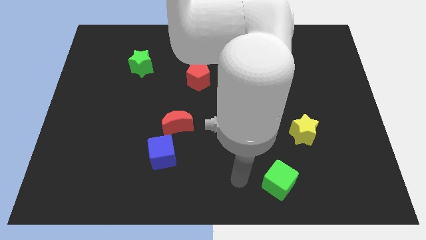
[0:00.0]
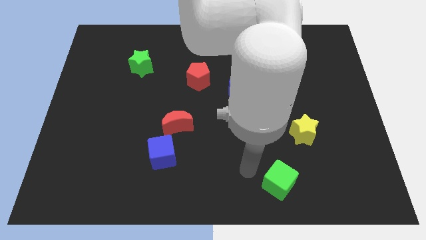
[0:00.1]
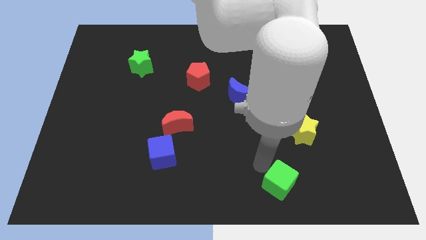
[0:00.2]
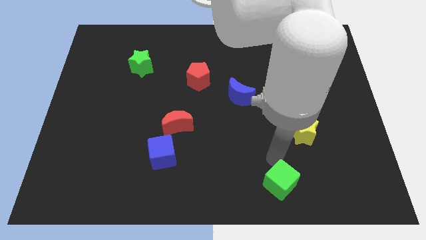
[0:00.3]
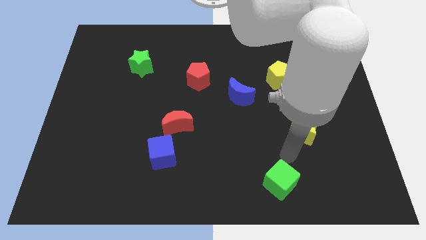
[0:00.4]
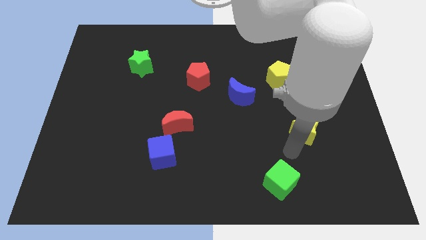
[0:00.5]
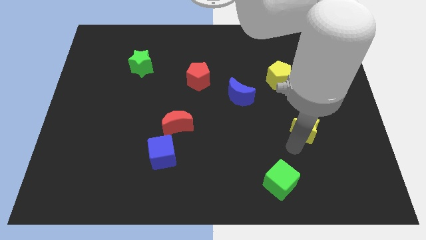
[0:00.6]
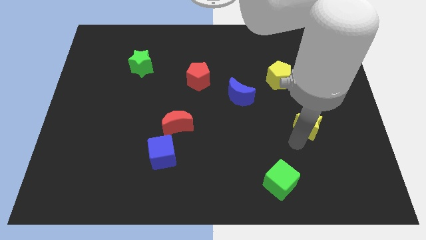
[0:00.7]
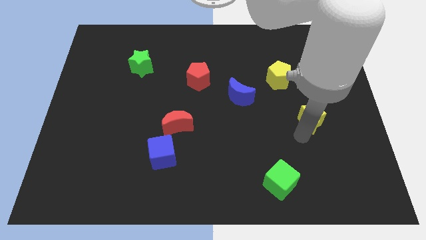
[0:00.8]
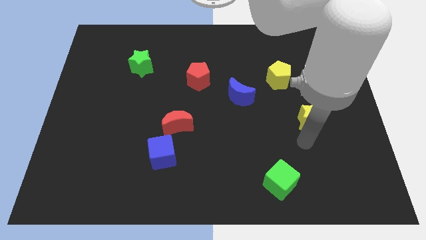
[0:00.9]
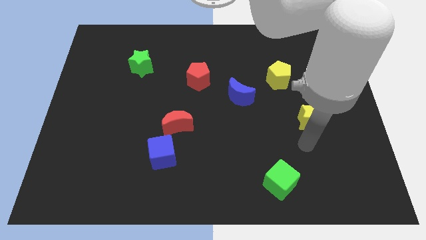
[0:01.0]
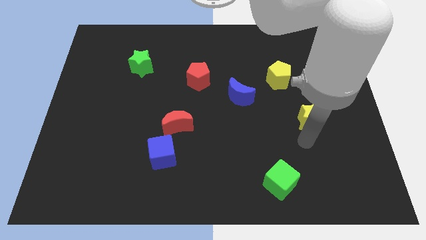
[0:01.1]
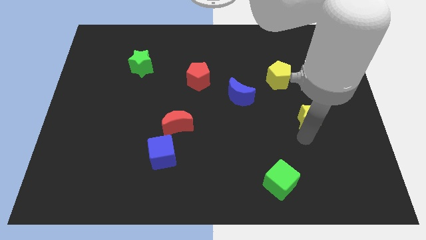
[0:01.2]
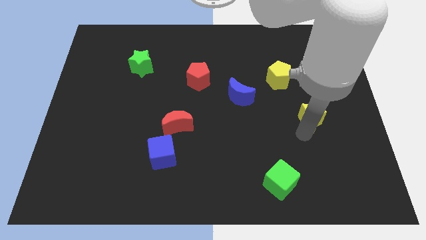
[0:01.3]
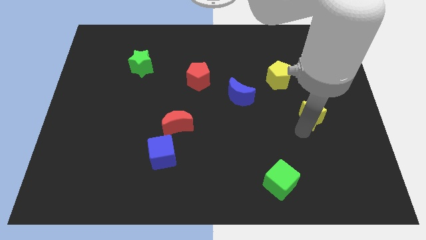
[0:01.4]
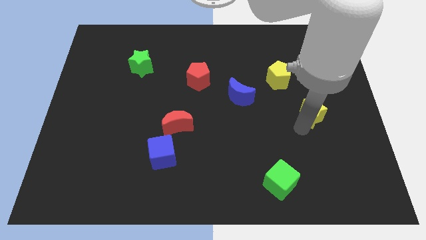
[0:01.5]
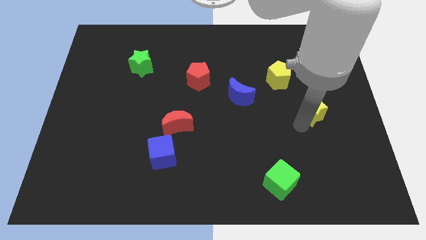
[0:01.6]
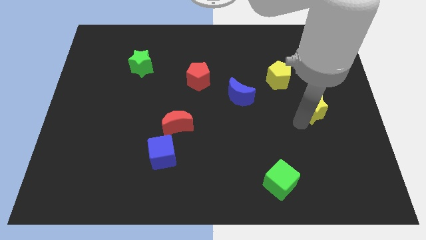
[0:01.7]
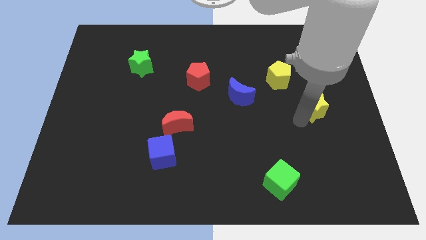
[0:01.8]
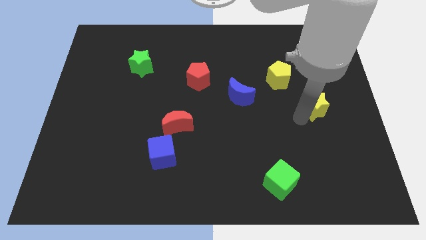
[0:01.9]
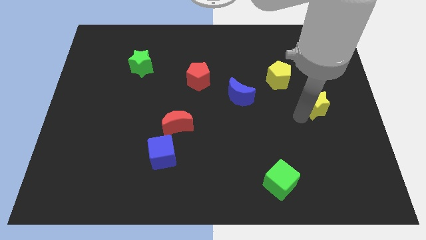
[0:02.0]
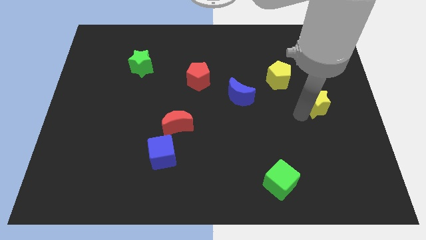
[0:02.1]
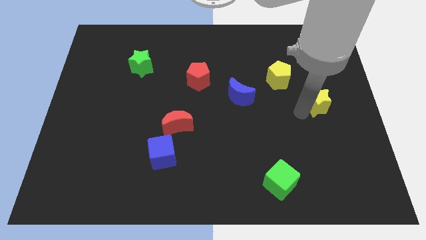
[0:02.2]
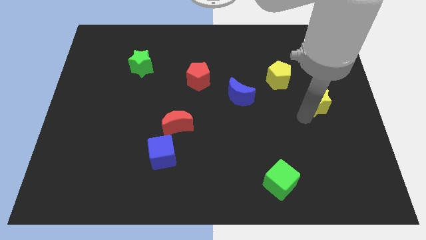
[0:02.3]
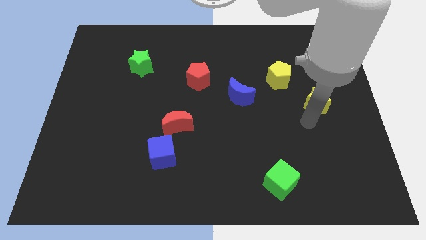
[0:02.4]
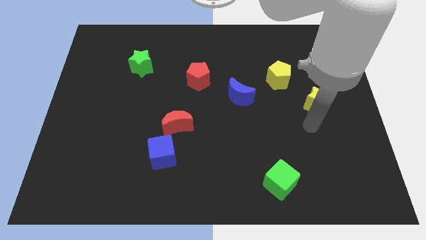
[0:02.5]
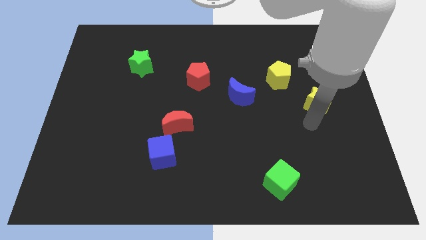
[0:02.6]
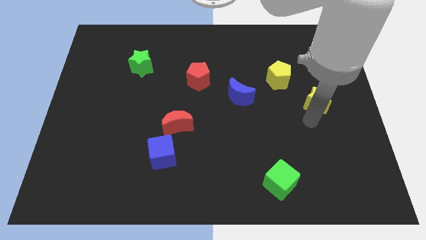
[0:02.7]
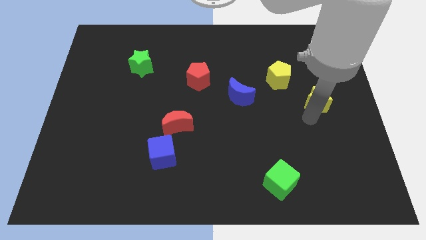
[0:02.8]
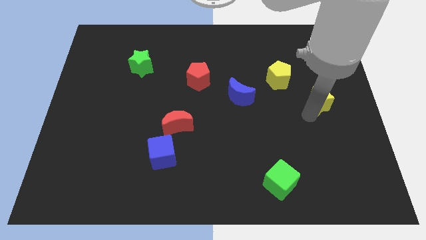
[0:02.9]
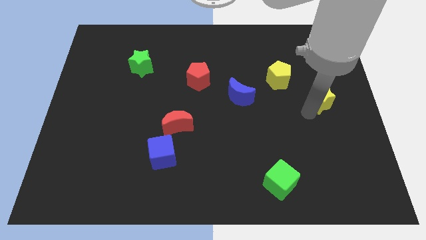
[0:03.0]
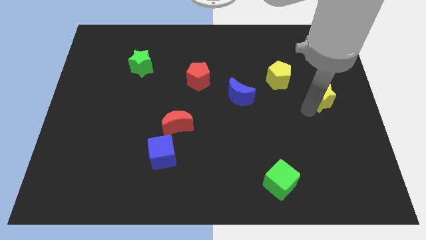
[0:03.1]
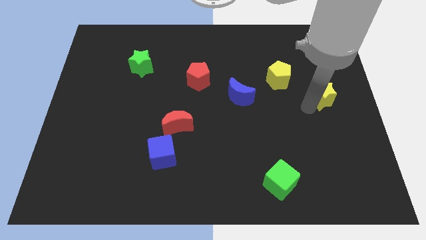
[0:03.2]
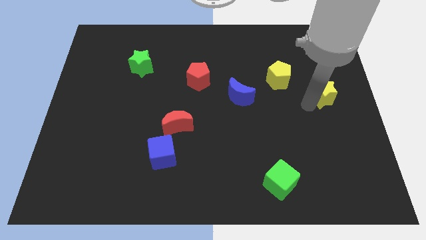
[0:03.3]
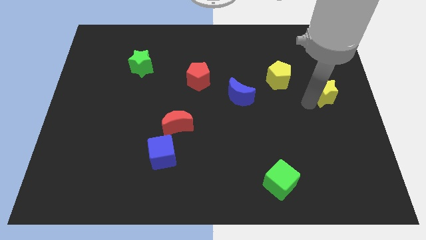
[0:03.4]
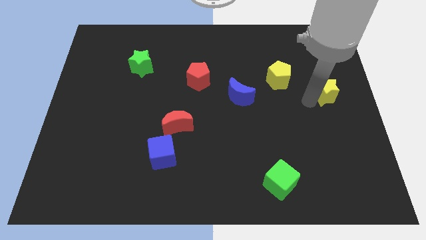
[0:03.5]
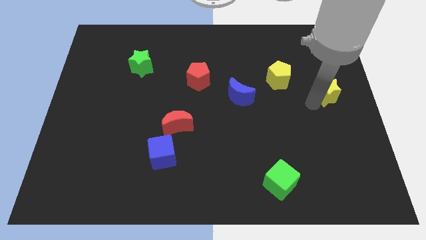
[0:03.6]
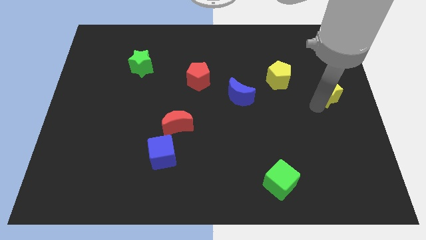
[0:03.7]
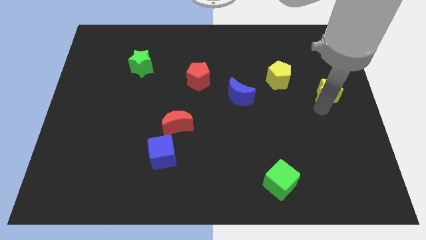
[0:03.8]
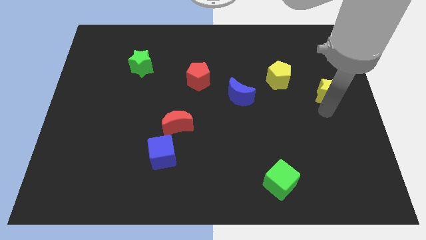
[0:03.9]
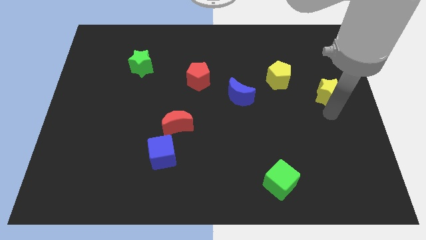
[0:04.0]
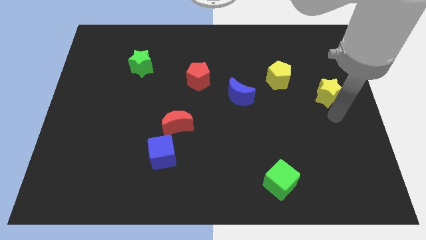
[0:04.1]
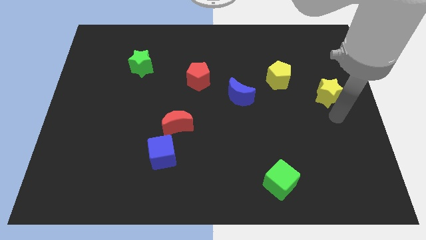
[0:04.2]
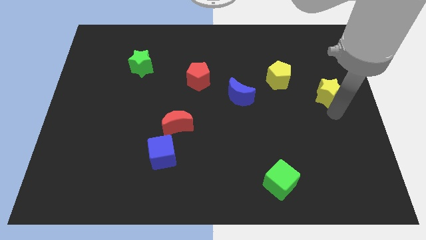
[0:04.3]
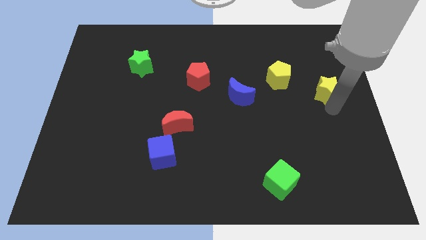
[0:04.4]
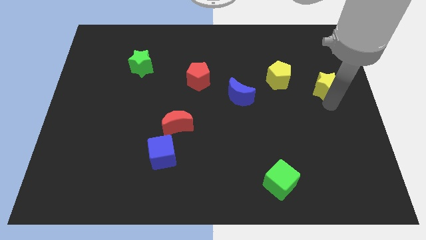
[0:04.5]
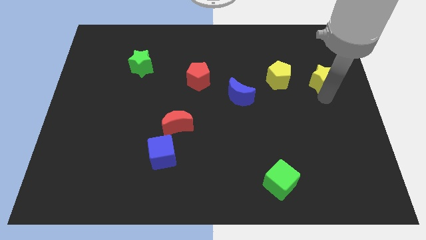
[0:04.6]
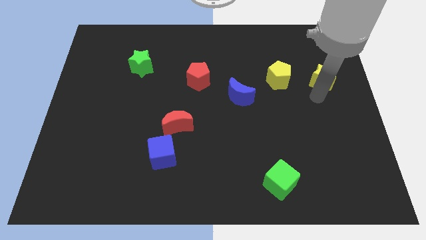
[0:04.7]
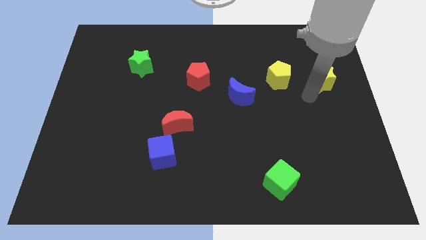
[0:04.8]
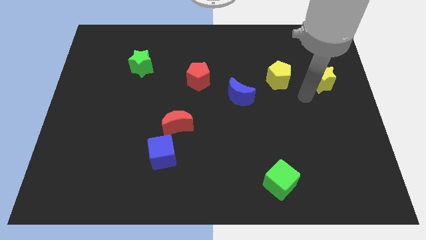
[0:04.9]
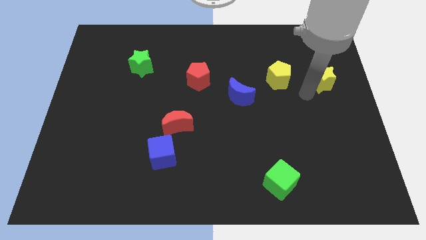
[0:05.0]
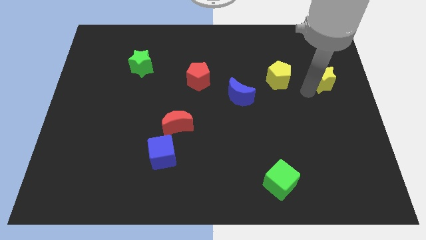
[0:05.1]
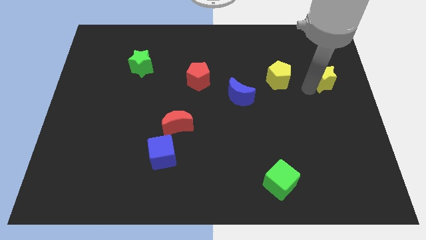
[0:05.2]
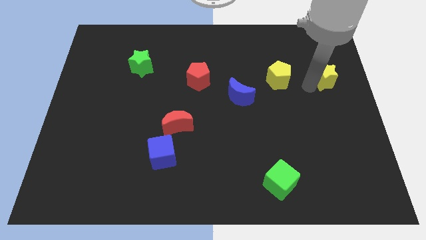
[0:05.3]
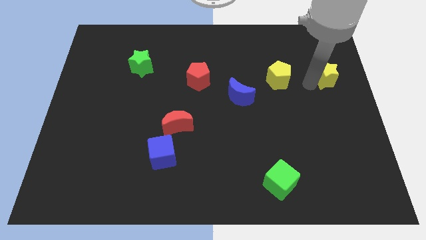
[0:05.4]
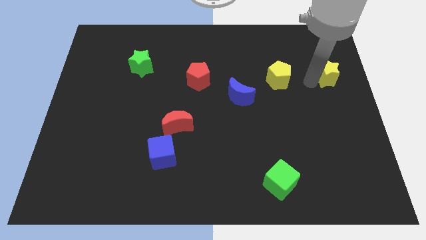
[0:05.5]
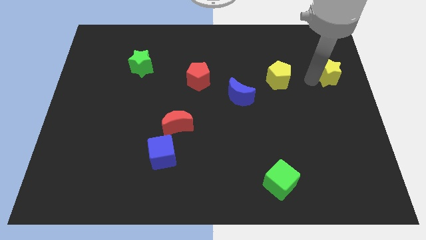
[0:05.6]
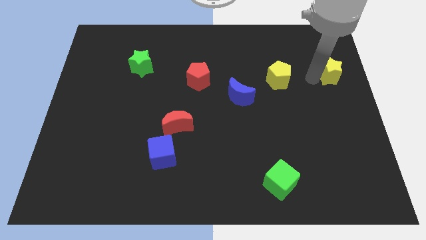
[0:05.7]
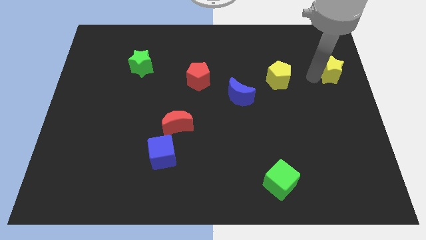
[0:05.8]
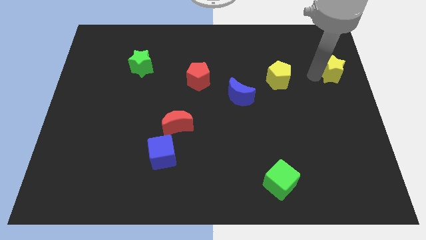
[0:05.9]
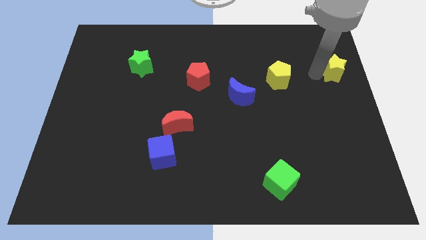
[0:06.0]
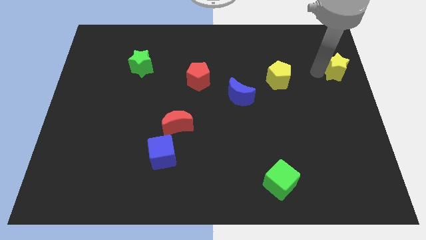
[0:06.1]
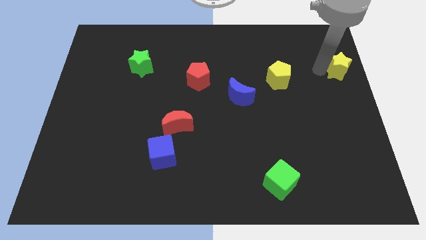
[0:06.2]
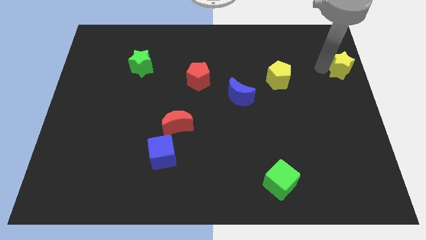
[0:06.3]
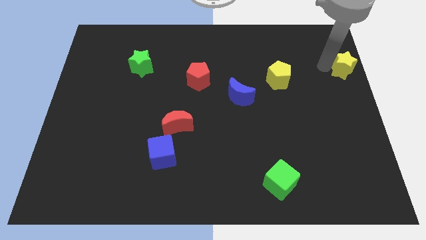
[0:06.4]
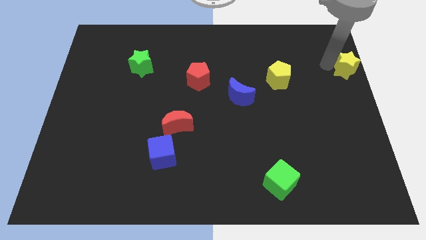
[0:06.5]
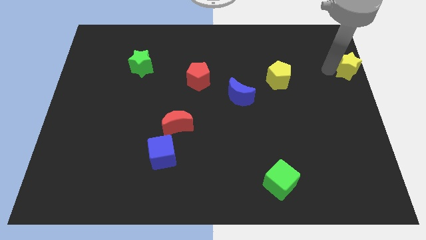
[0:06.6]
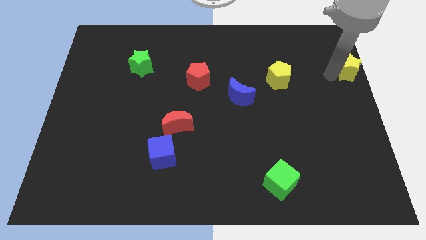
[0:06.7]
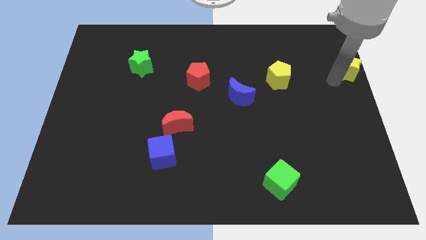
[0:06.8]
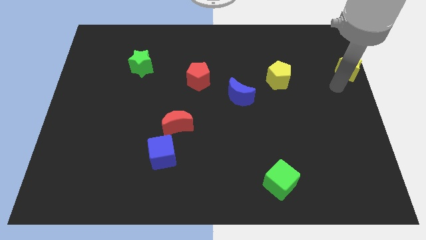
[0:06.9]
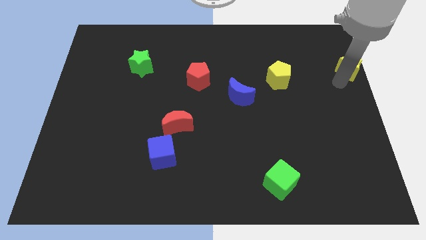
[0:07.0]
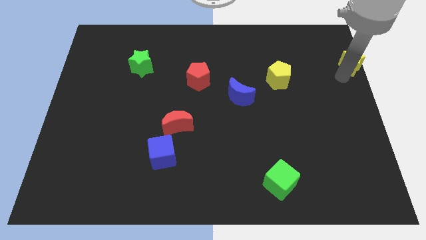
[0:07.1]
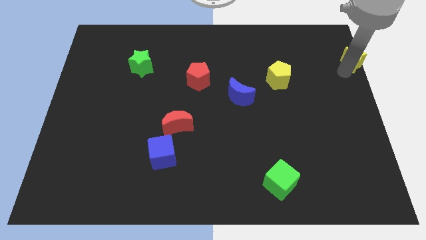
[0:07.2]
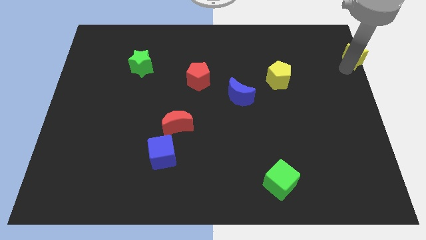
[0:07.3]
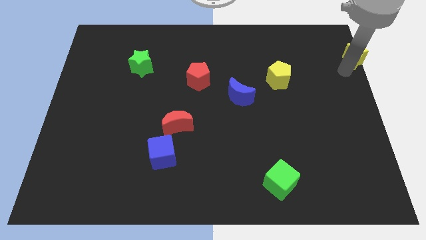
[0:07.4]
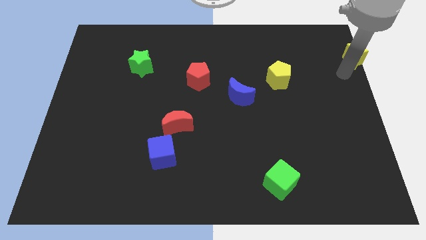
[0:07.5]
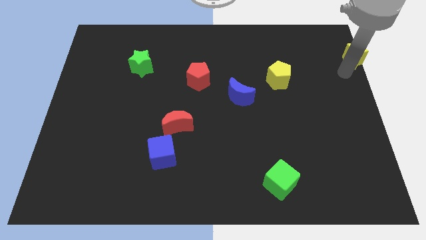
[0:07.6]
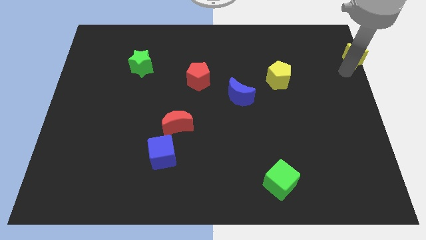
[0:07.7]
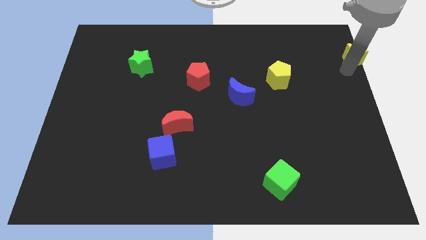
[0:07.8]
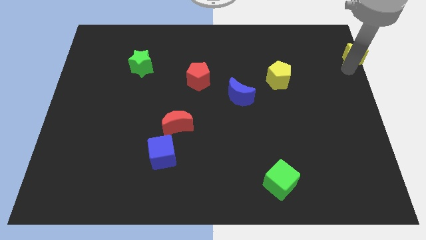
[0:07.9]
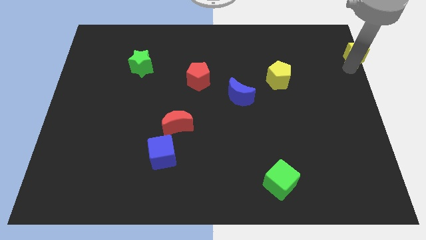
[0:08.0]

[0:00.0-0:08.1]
slide the yellow star to the top right of the board
